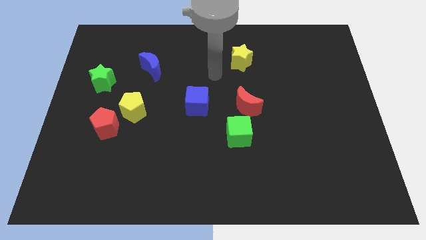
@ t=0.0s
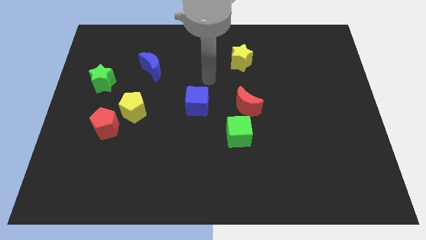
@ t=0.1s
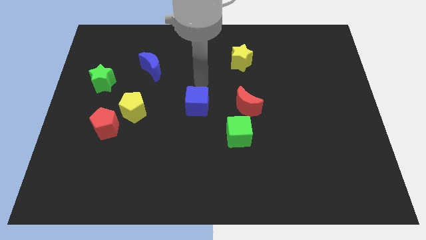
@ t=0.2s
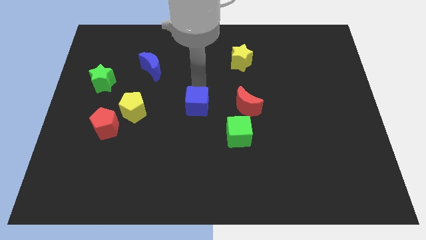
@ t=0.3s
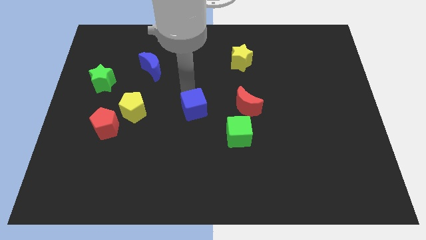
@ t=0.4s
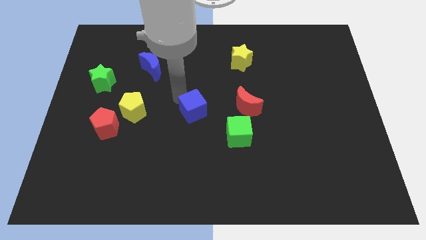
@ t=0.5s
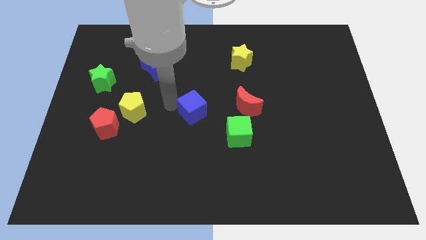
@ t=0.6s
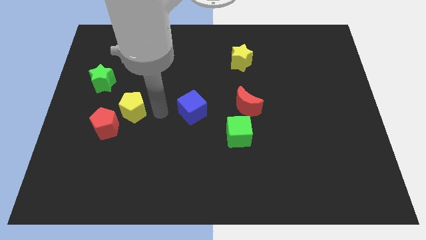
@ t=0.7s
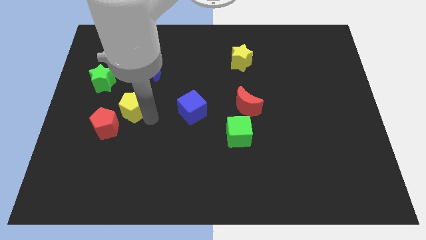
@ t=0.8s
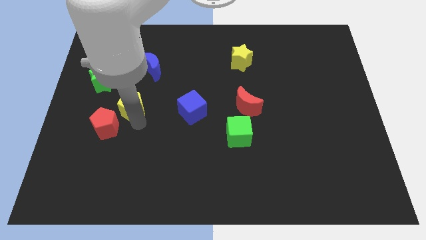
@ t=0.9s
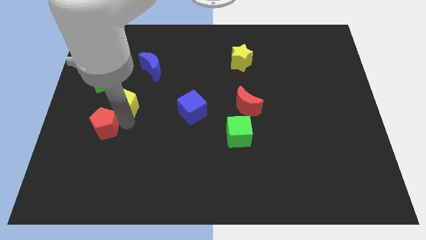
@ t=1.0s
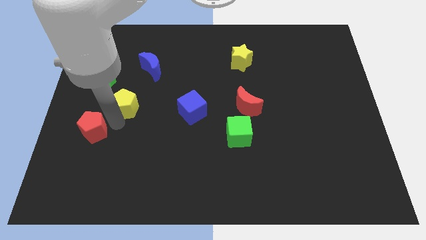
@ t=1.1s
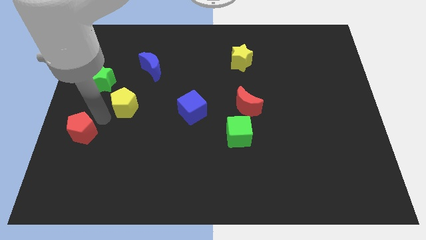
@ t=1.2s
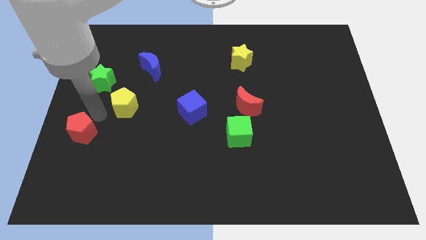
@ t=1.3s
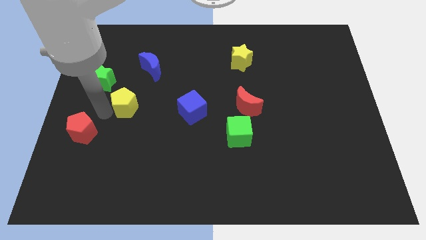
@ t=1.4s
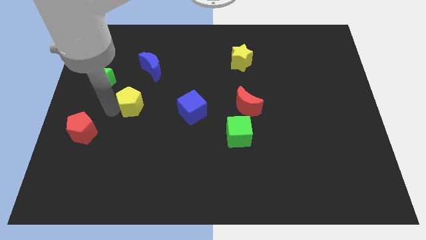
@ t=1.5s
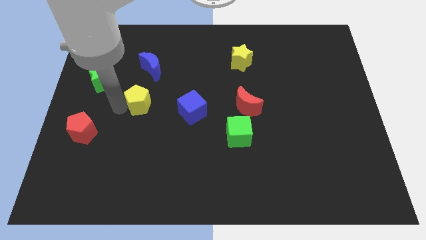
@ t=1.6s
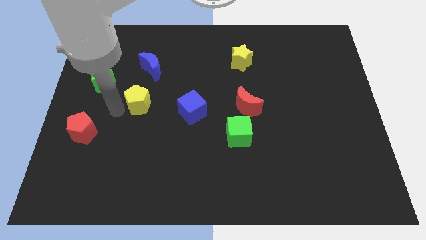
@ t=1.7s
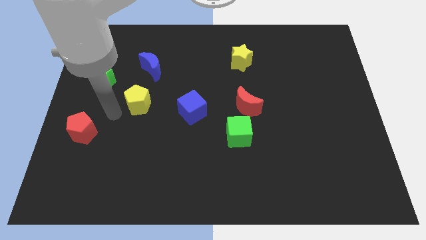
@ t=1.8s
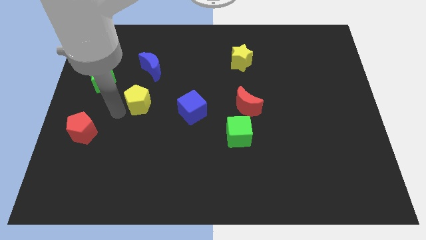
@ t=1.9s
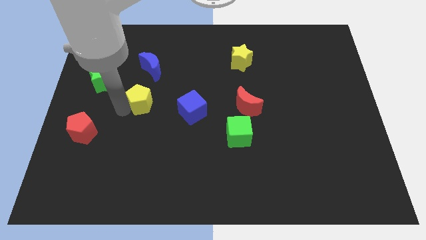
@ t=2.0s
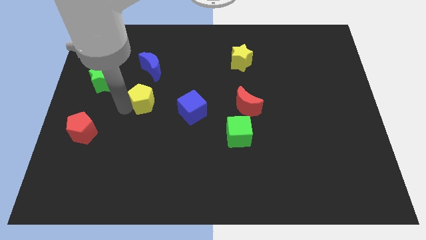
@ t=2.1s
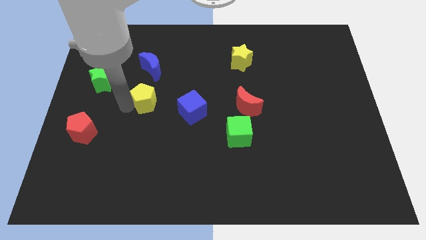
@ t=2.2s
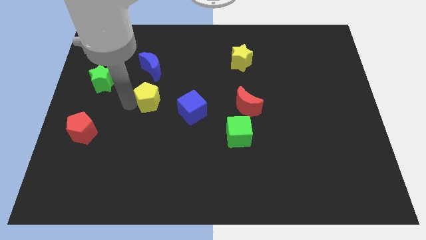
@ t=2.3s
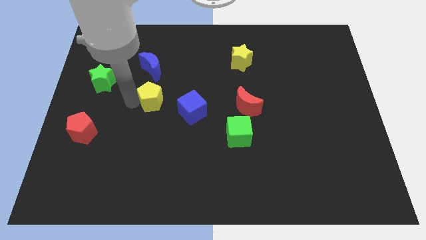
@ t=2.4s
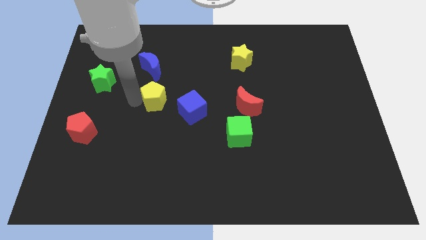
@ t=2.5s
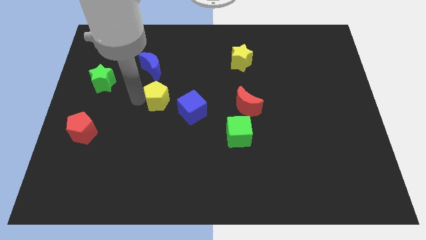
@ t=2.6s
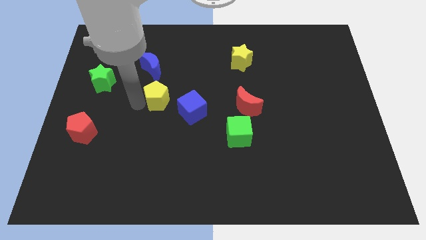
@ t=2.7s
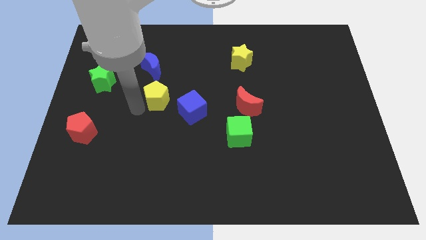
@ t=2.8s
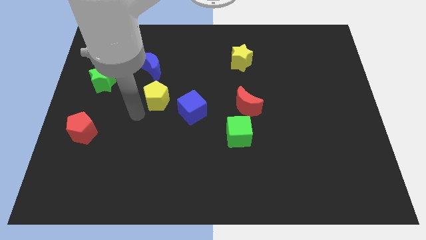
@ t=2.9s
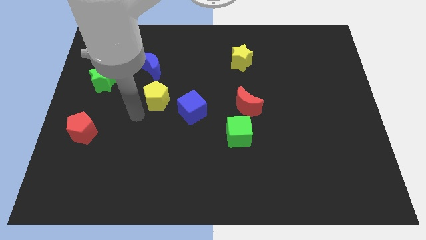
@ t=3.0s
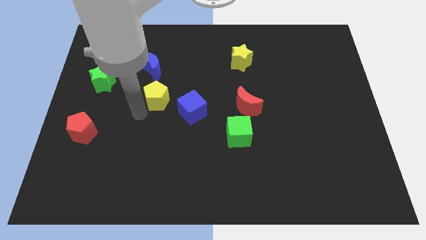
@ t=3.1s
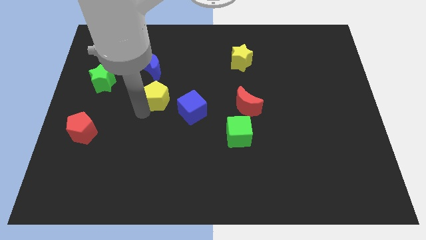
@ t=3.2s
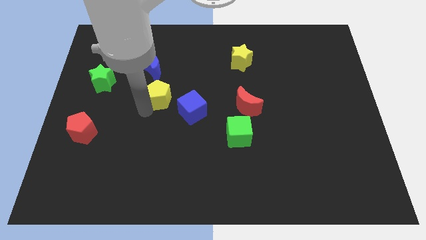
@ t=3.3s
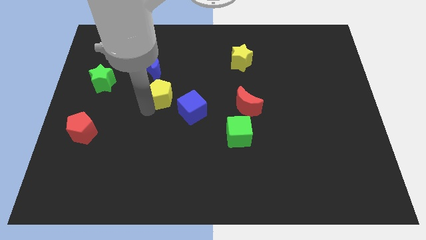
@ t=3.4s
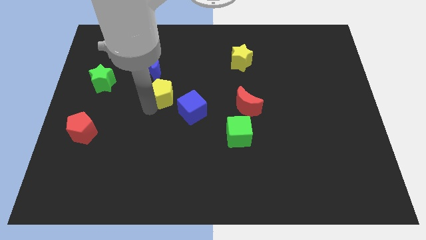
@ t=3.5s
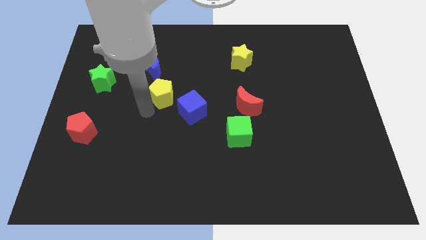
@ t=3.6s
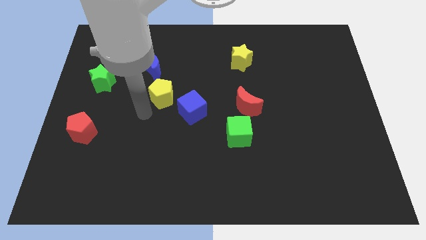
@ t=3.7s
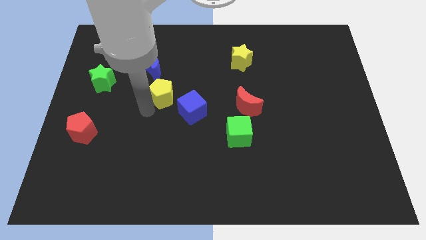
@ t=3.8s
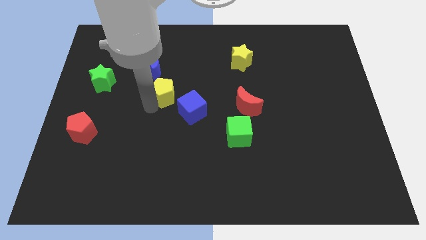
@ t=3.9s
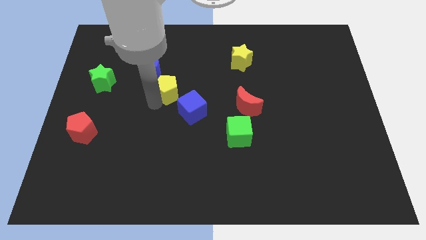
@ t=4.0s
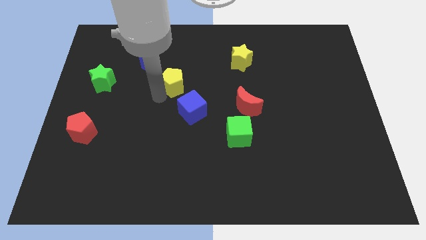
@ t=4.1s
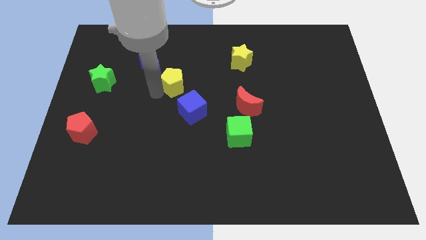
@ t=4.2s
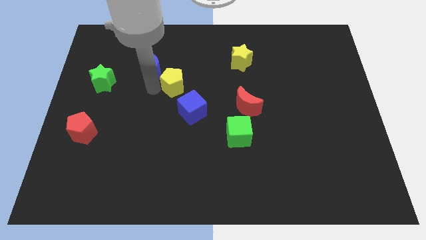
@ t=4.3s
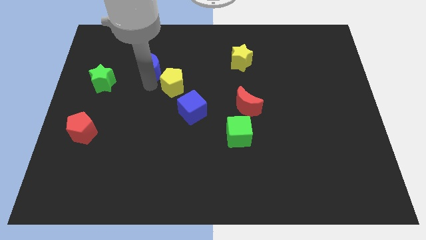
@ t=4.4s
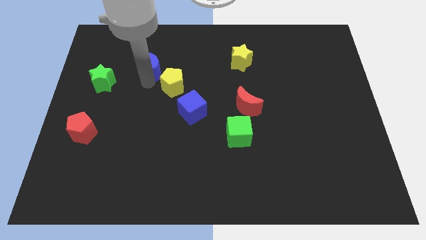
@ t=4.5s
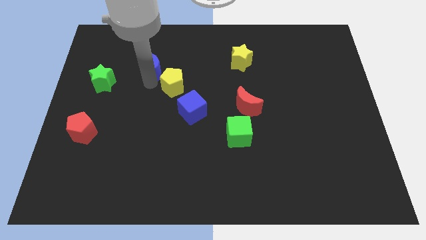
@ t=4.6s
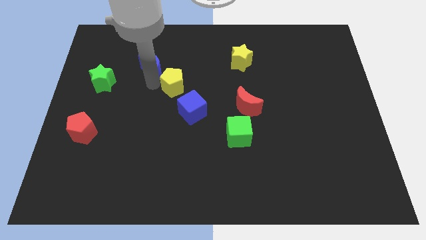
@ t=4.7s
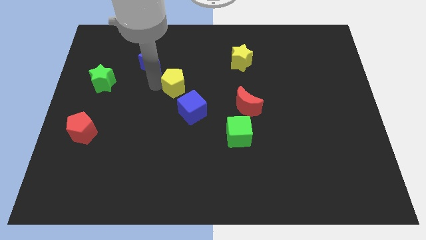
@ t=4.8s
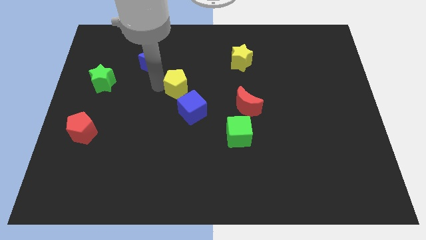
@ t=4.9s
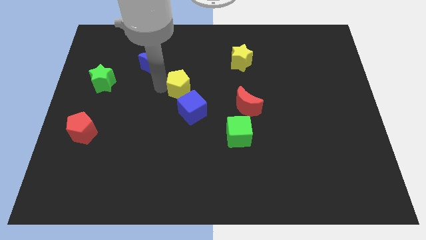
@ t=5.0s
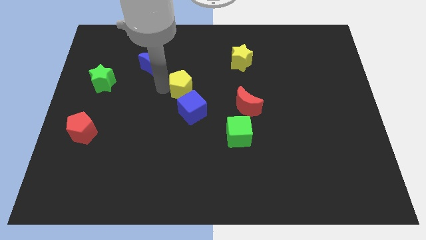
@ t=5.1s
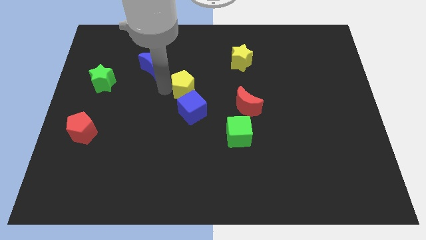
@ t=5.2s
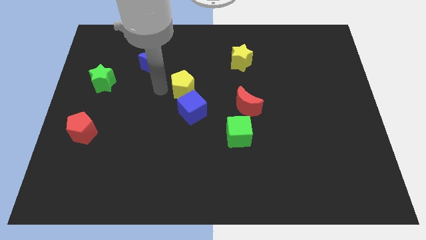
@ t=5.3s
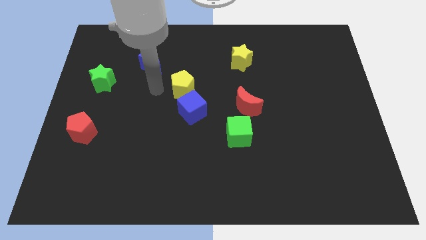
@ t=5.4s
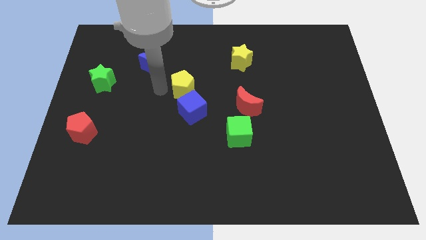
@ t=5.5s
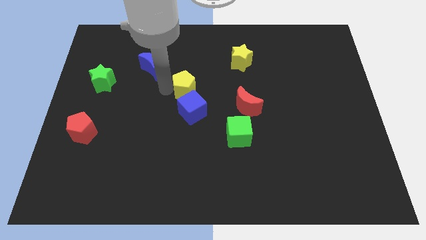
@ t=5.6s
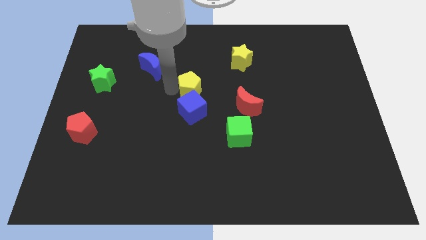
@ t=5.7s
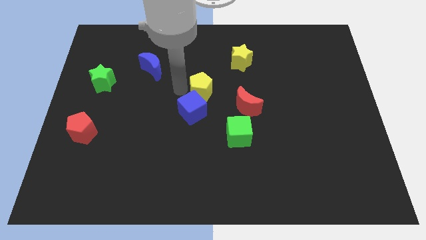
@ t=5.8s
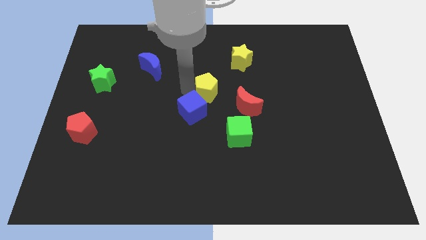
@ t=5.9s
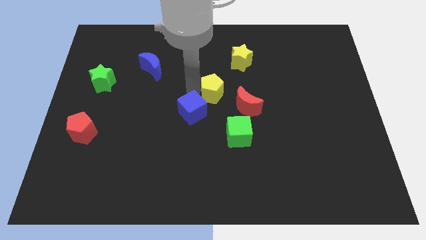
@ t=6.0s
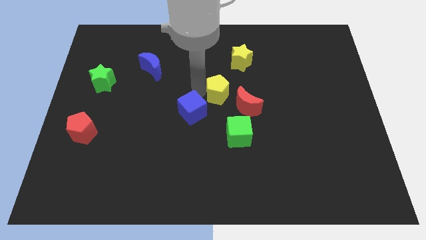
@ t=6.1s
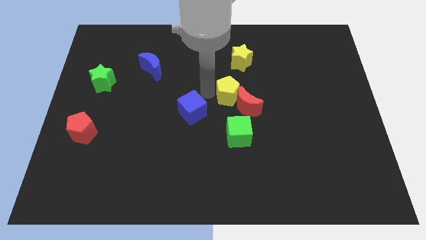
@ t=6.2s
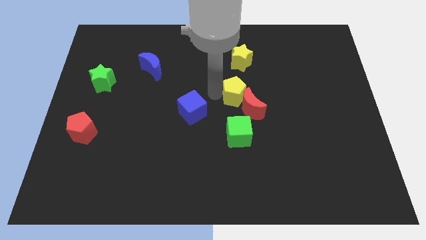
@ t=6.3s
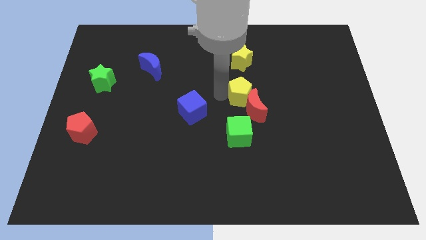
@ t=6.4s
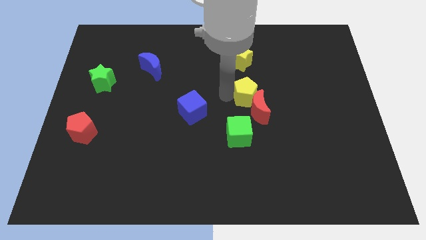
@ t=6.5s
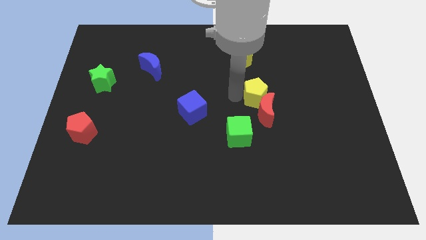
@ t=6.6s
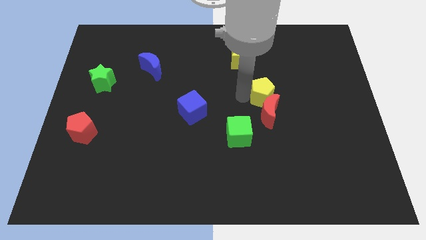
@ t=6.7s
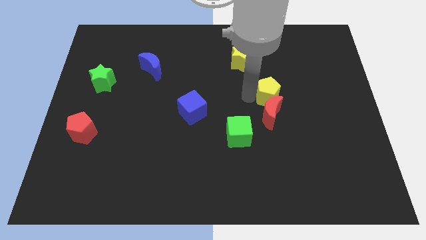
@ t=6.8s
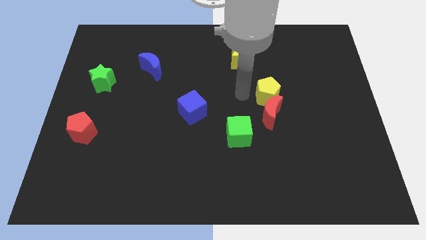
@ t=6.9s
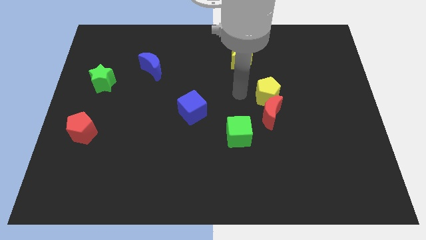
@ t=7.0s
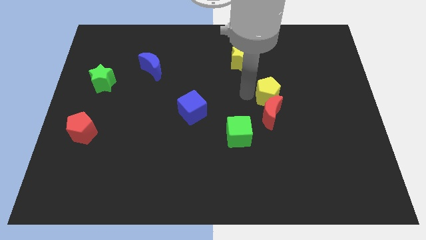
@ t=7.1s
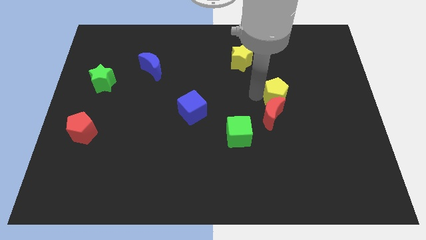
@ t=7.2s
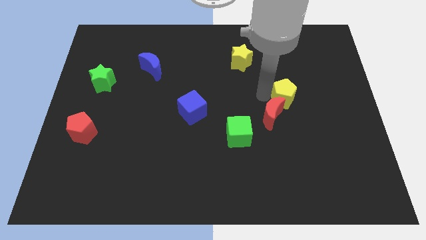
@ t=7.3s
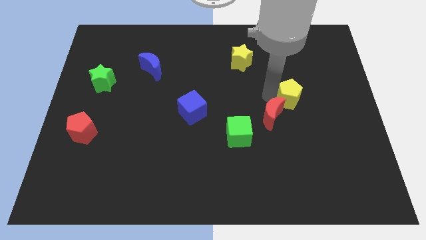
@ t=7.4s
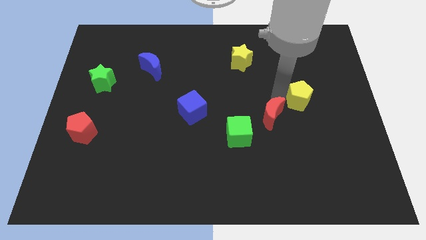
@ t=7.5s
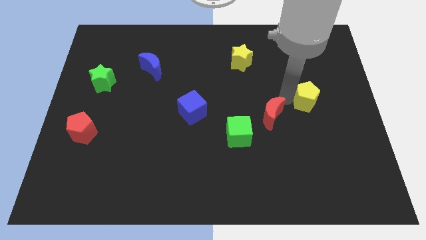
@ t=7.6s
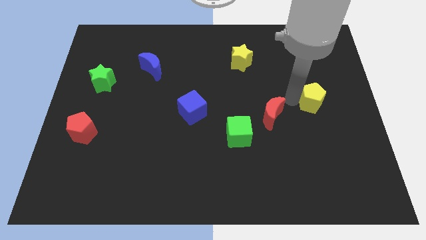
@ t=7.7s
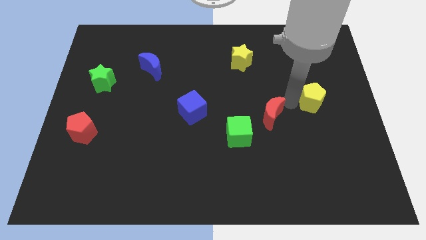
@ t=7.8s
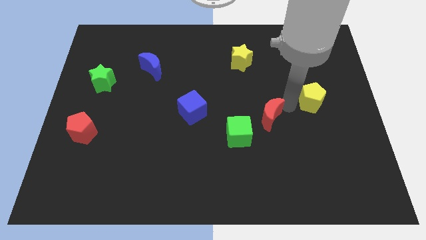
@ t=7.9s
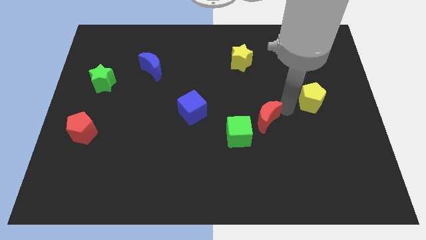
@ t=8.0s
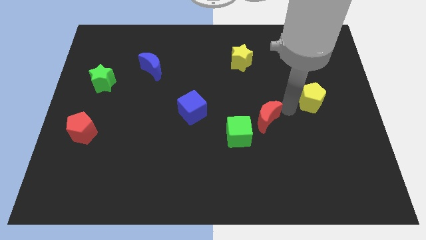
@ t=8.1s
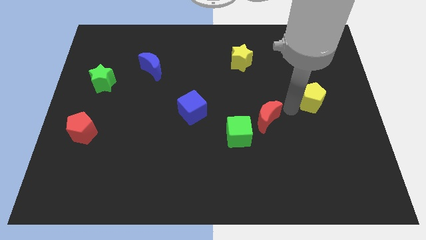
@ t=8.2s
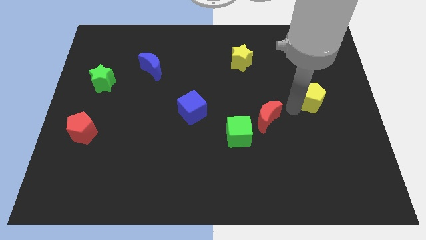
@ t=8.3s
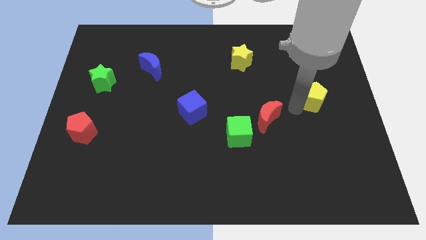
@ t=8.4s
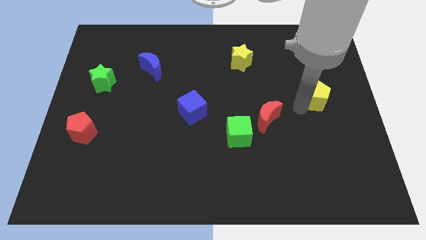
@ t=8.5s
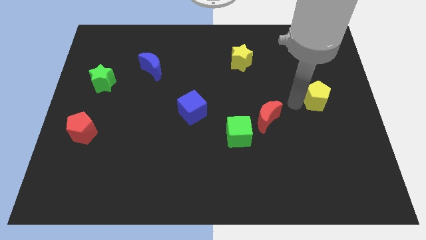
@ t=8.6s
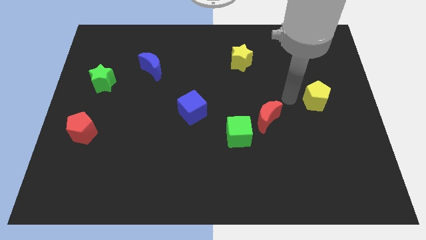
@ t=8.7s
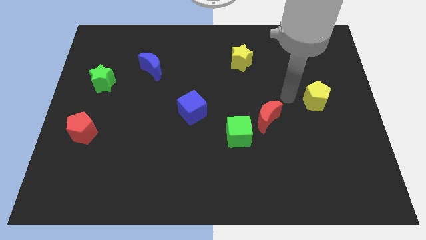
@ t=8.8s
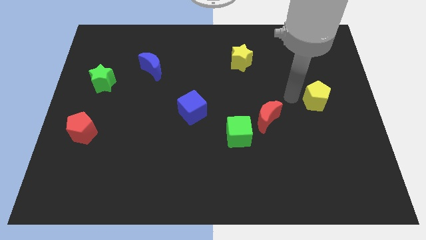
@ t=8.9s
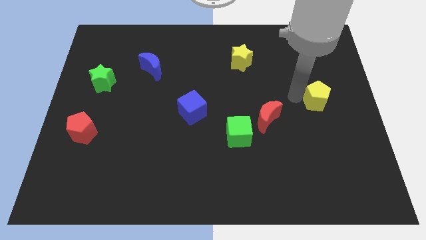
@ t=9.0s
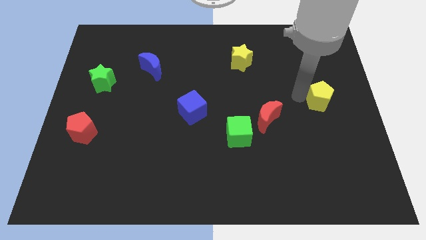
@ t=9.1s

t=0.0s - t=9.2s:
move the yellow pentagon to the right side
